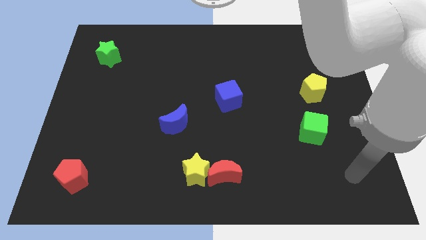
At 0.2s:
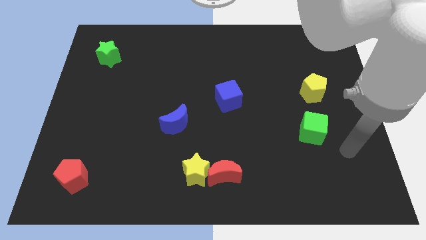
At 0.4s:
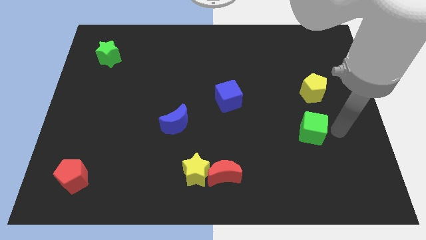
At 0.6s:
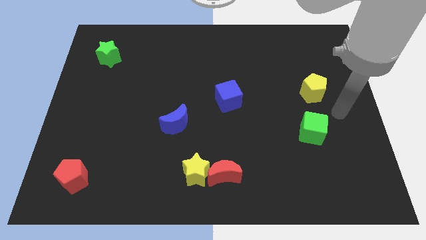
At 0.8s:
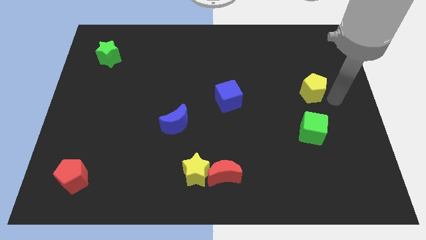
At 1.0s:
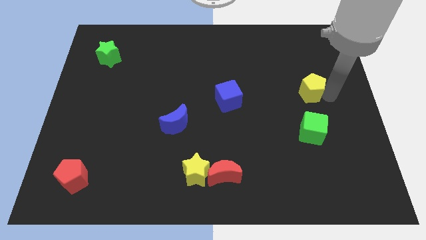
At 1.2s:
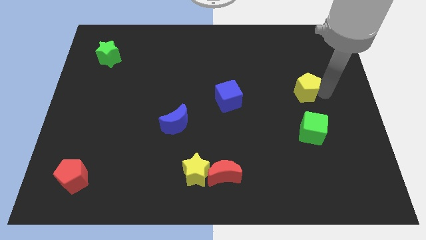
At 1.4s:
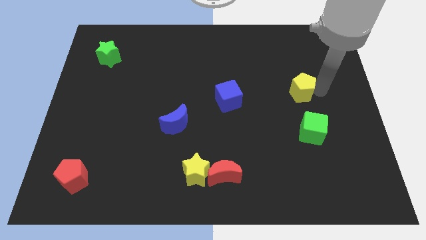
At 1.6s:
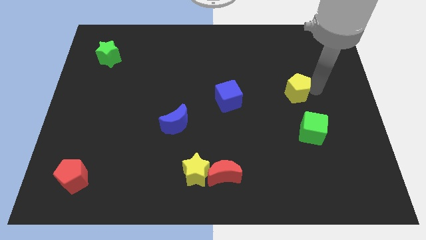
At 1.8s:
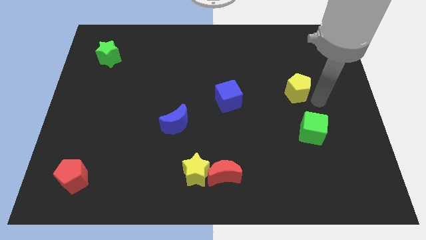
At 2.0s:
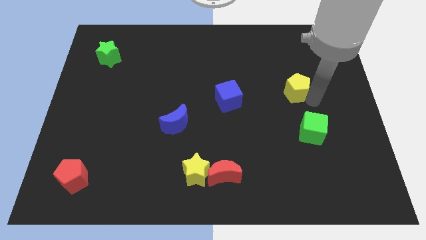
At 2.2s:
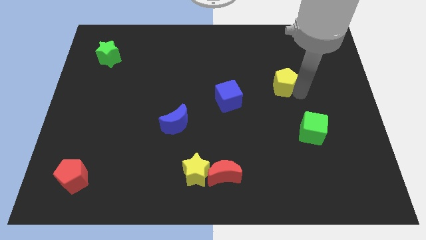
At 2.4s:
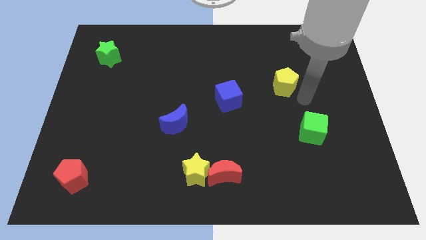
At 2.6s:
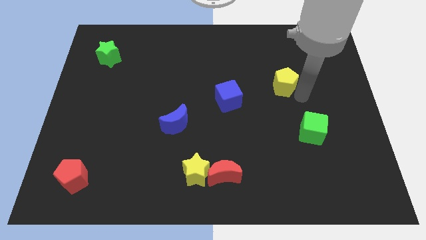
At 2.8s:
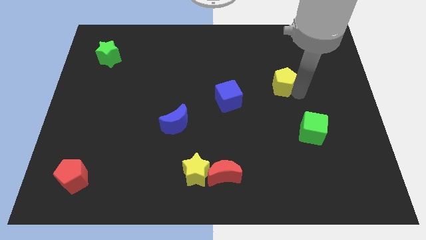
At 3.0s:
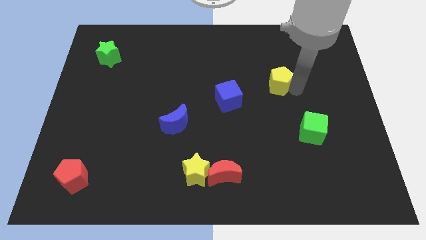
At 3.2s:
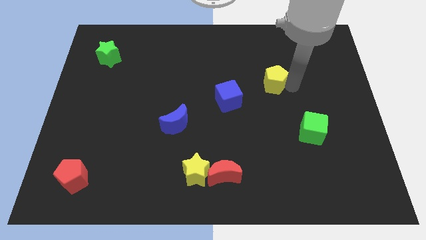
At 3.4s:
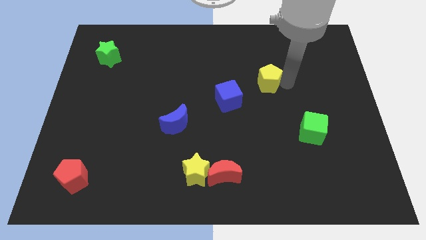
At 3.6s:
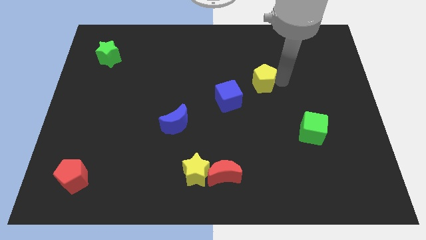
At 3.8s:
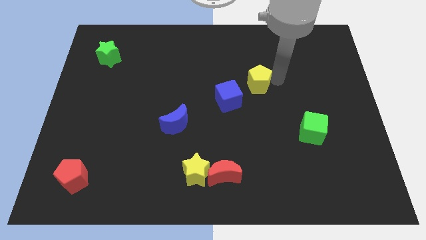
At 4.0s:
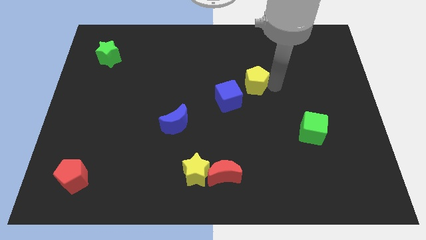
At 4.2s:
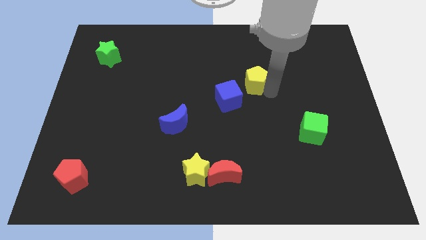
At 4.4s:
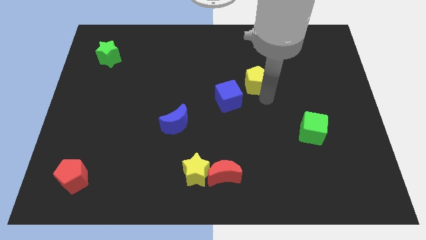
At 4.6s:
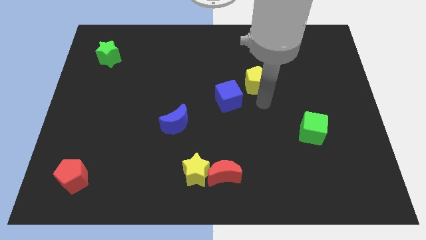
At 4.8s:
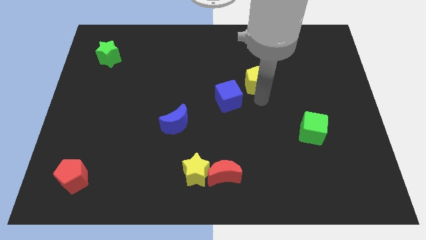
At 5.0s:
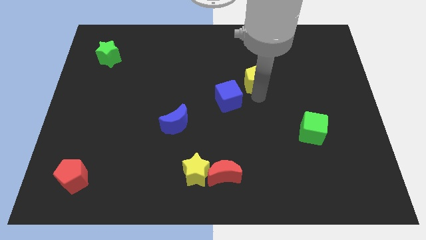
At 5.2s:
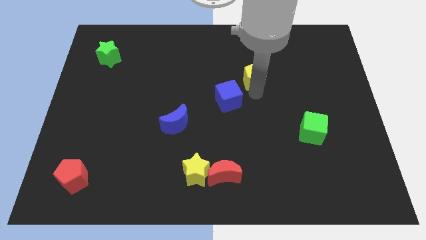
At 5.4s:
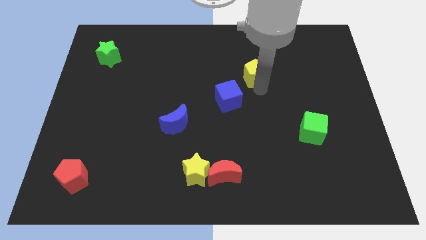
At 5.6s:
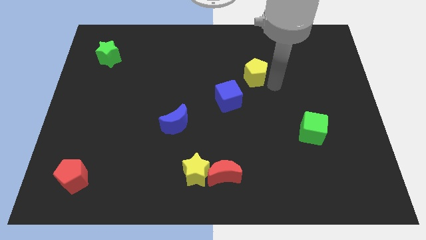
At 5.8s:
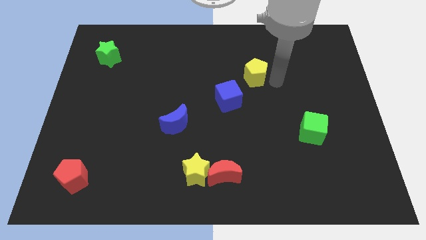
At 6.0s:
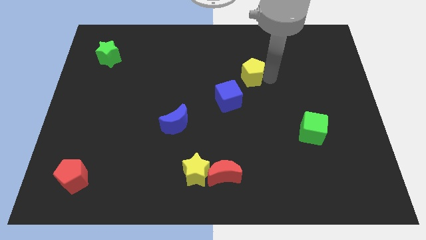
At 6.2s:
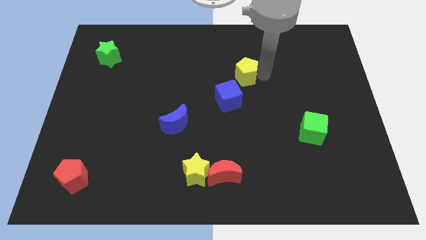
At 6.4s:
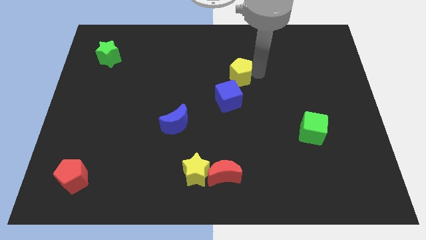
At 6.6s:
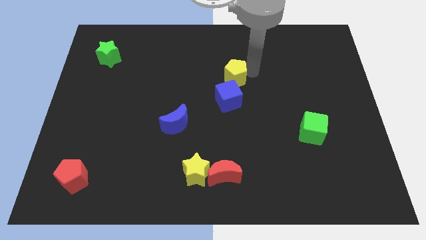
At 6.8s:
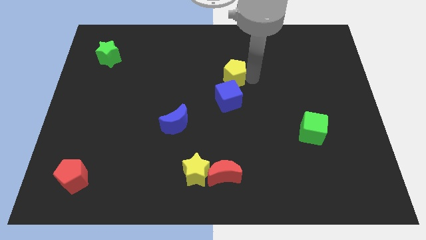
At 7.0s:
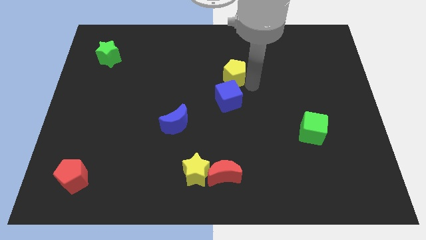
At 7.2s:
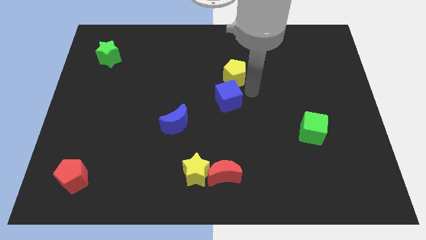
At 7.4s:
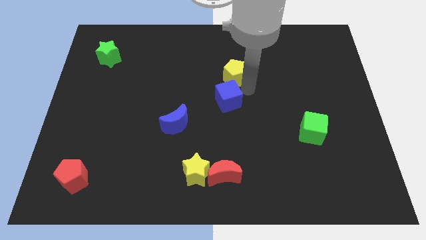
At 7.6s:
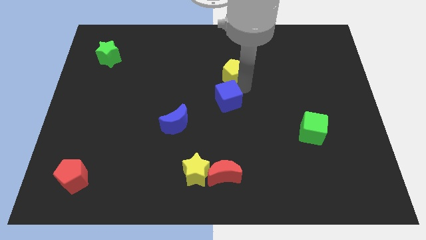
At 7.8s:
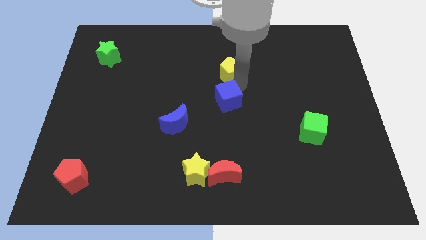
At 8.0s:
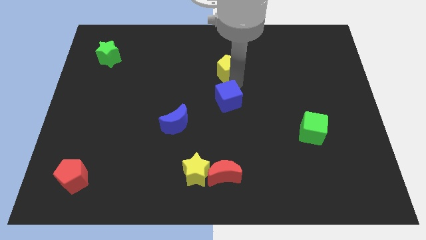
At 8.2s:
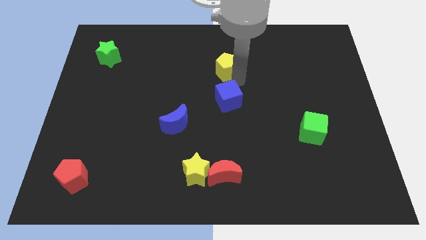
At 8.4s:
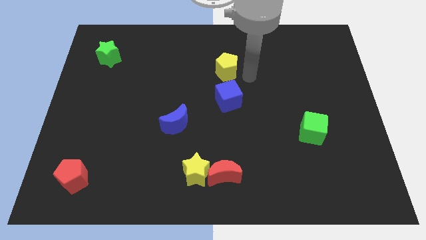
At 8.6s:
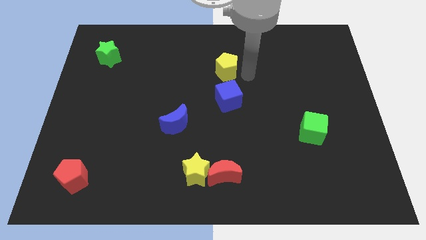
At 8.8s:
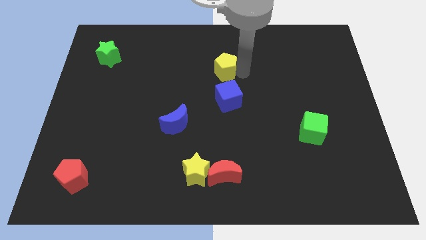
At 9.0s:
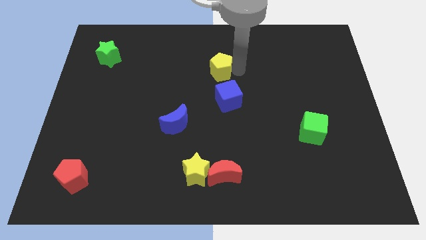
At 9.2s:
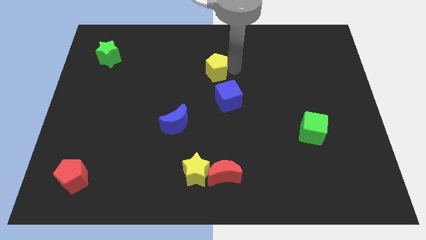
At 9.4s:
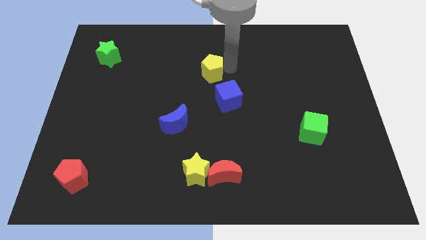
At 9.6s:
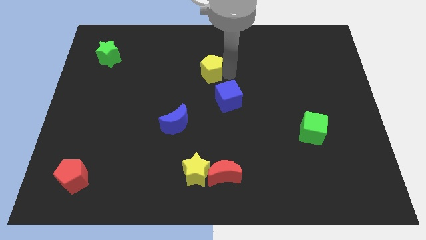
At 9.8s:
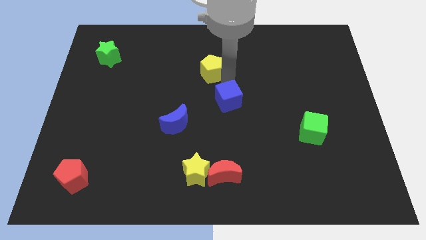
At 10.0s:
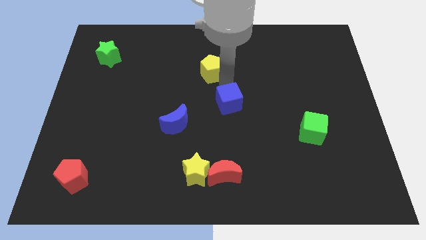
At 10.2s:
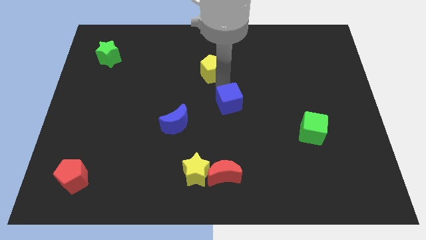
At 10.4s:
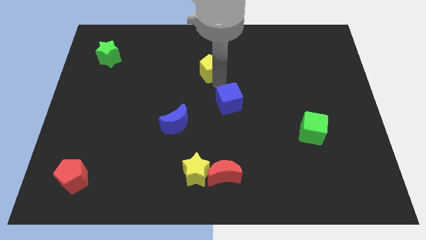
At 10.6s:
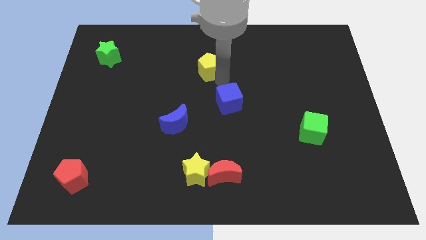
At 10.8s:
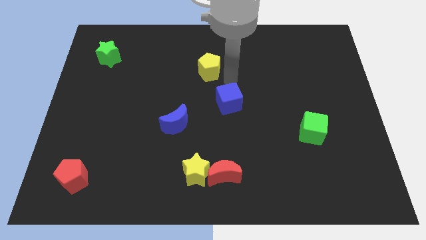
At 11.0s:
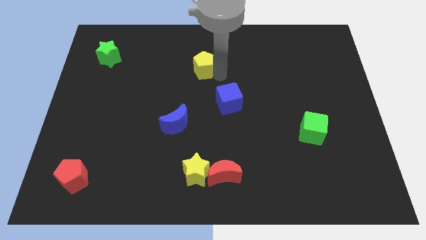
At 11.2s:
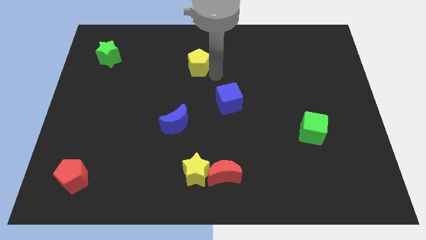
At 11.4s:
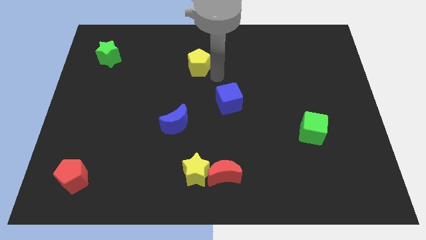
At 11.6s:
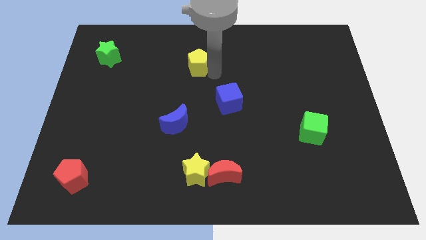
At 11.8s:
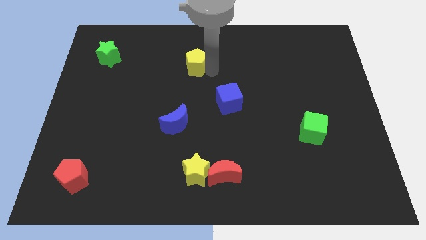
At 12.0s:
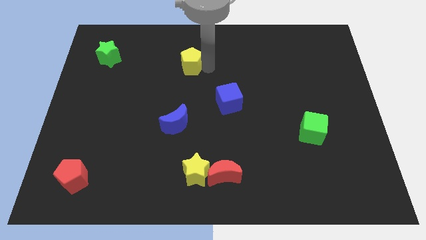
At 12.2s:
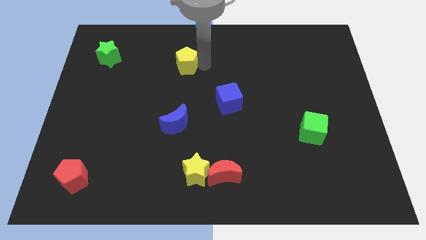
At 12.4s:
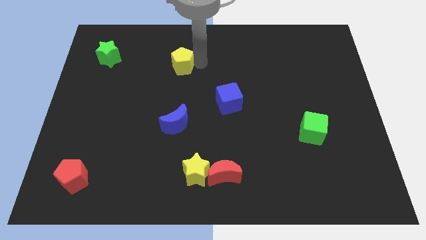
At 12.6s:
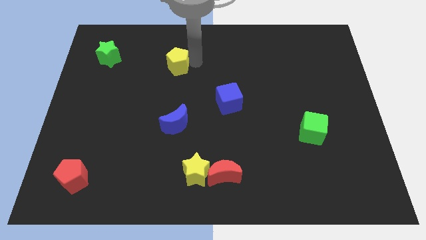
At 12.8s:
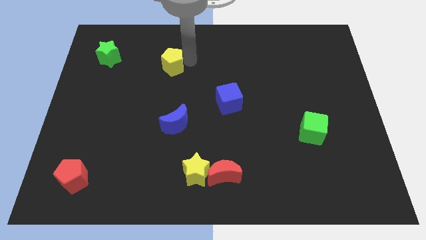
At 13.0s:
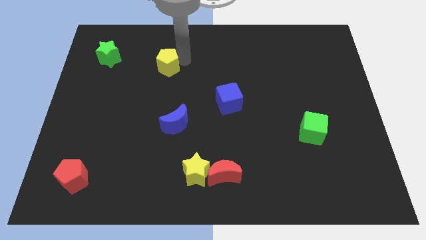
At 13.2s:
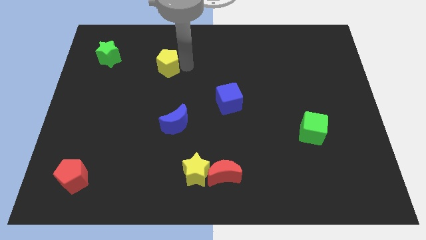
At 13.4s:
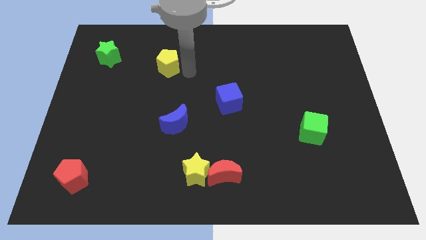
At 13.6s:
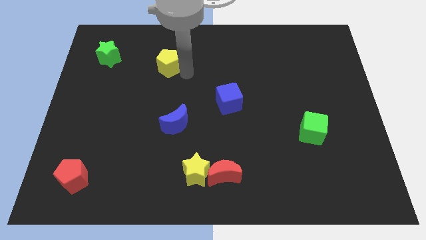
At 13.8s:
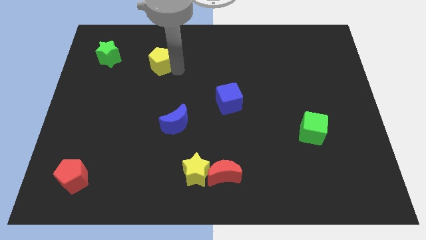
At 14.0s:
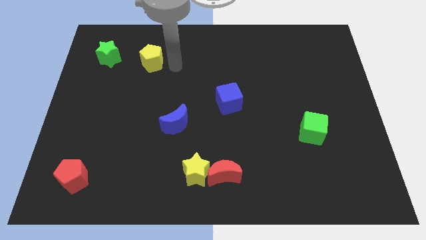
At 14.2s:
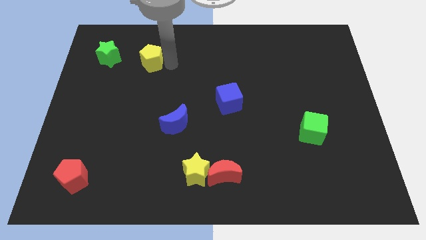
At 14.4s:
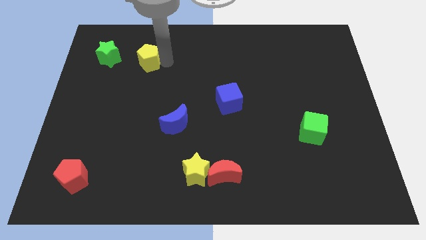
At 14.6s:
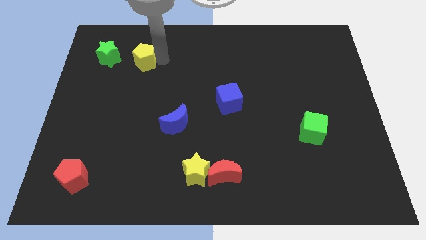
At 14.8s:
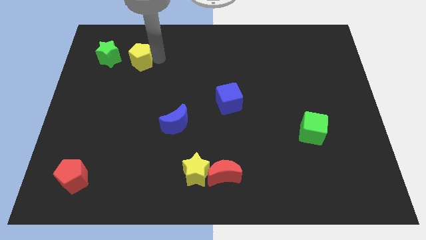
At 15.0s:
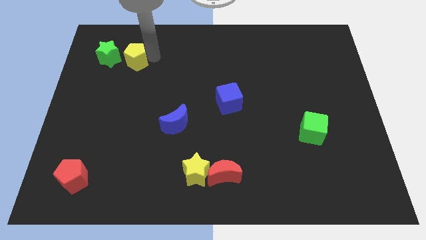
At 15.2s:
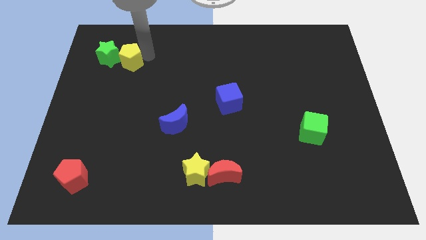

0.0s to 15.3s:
put the yellow pentagon next to the green star
